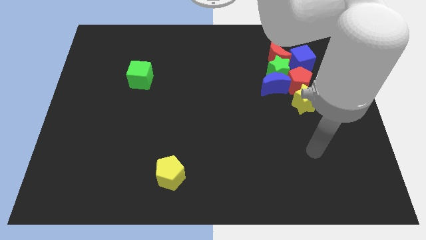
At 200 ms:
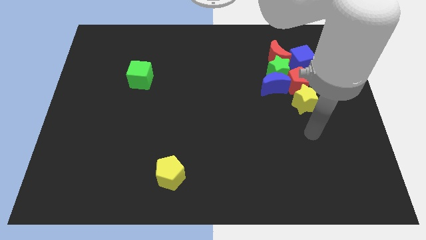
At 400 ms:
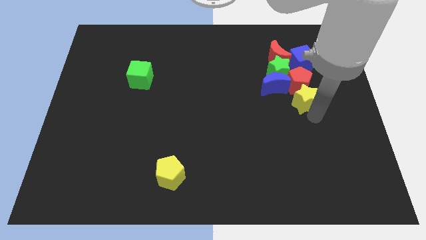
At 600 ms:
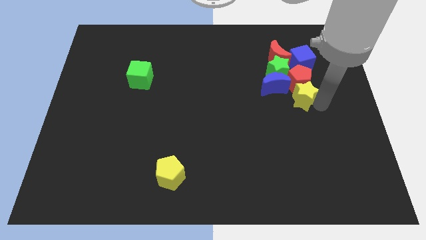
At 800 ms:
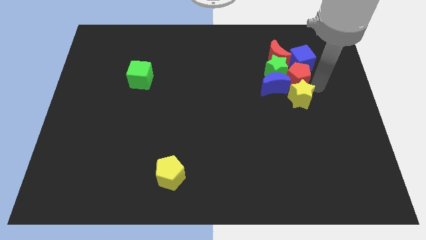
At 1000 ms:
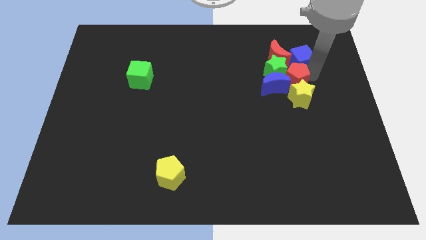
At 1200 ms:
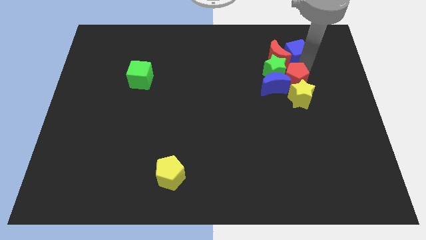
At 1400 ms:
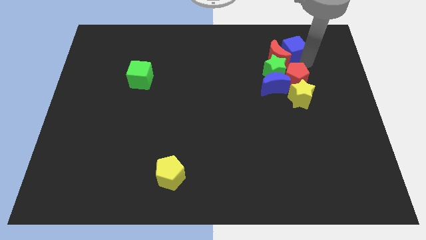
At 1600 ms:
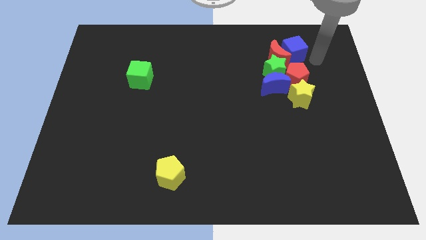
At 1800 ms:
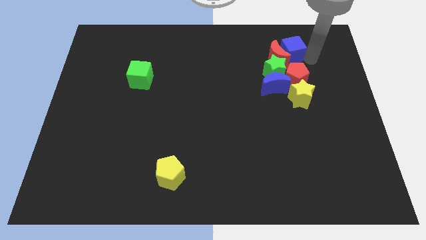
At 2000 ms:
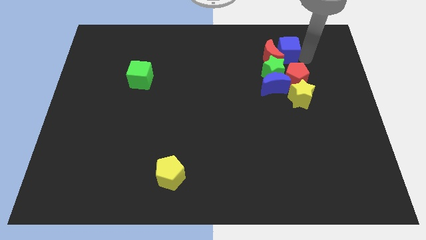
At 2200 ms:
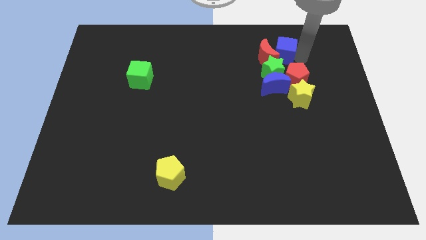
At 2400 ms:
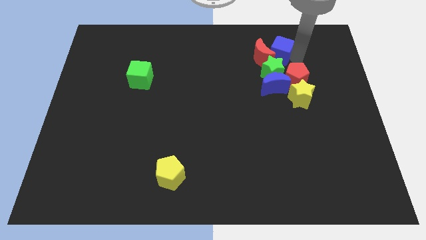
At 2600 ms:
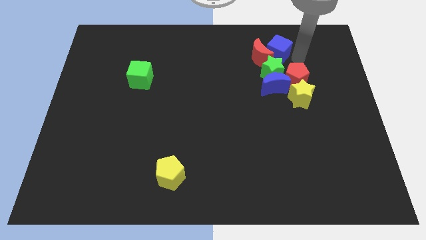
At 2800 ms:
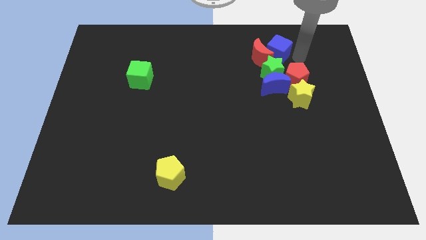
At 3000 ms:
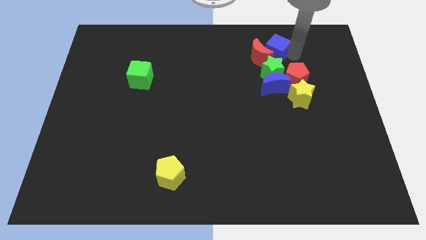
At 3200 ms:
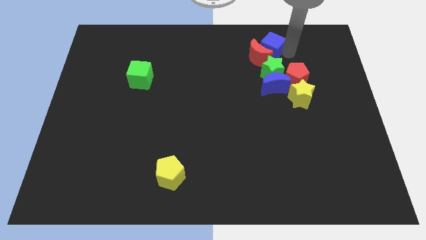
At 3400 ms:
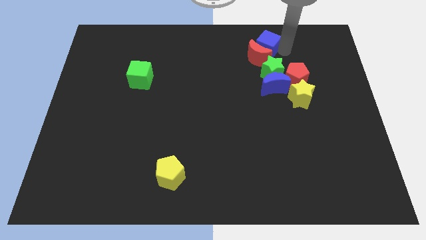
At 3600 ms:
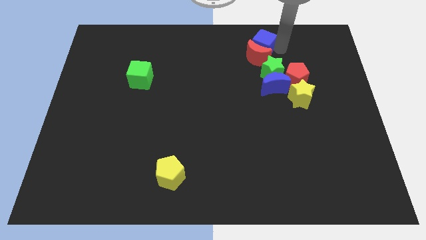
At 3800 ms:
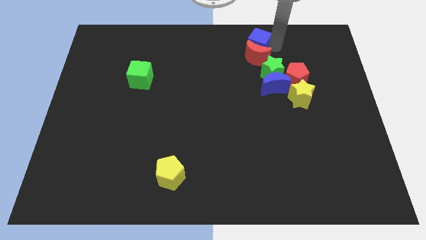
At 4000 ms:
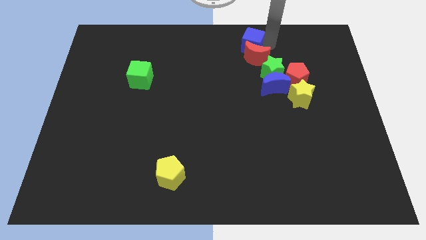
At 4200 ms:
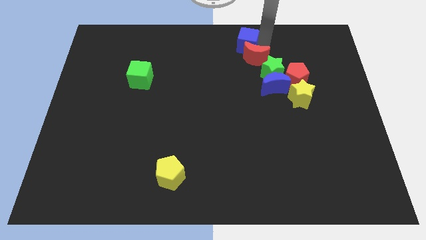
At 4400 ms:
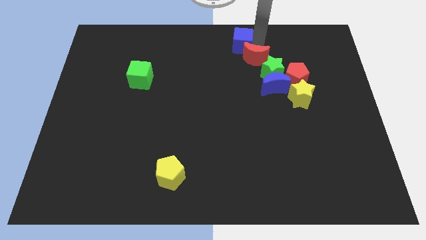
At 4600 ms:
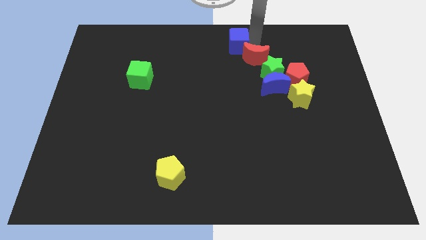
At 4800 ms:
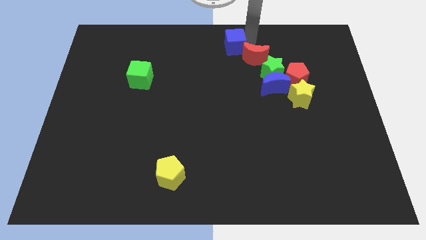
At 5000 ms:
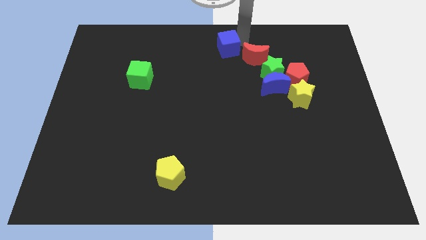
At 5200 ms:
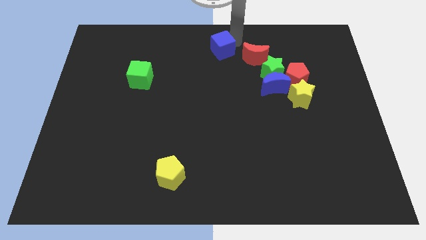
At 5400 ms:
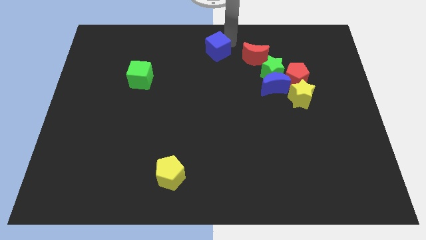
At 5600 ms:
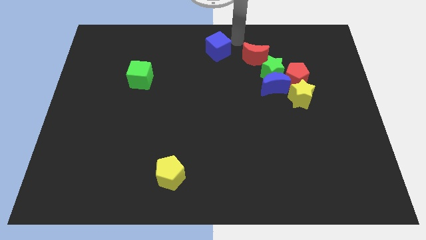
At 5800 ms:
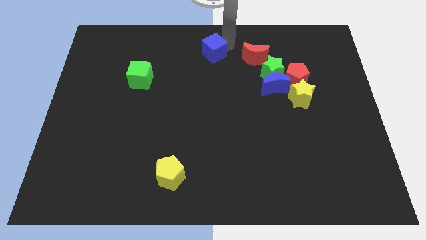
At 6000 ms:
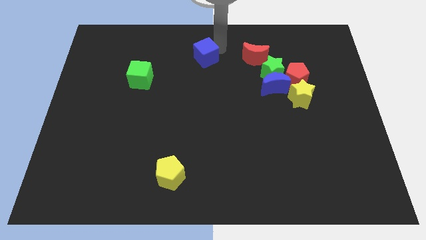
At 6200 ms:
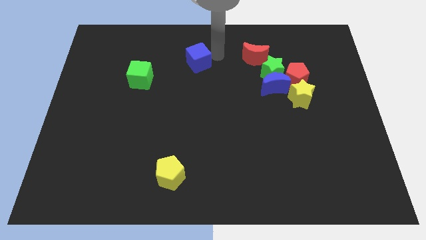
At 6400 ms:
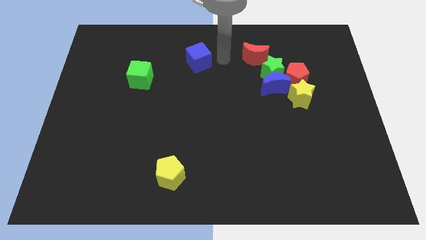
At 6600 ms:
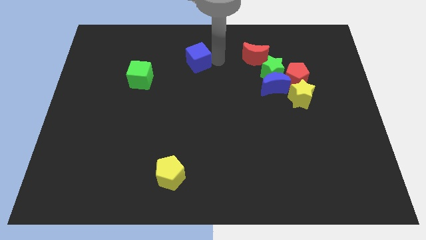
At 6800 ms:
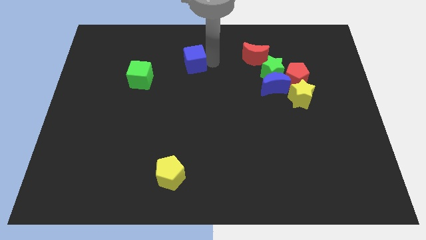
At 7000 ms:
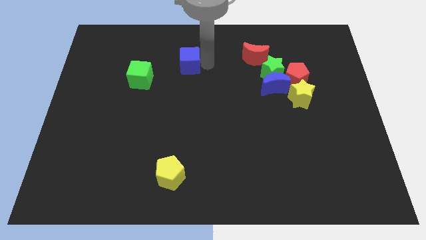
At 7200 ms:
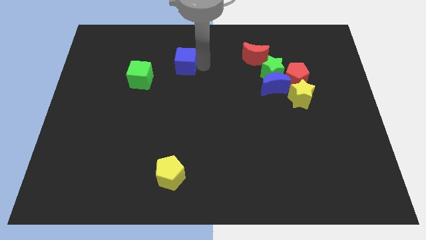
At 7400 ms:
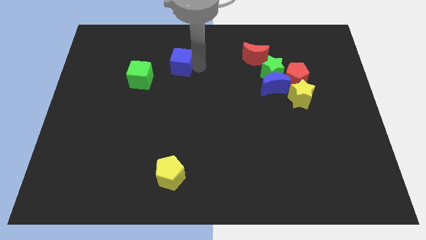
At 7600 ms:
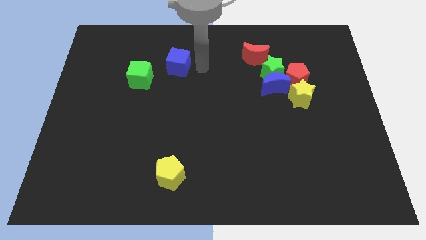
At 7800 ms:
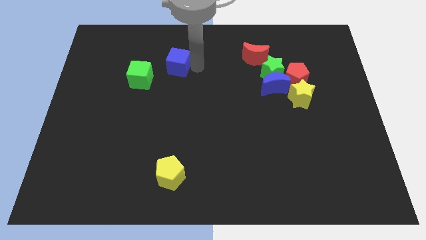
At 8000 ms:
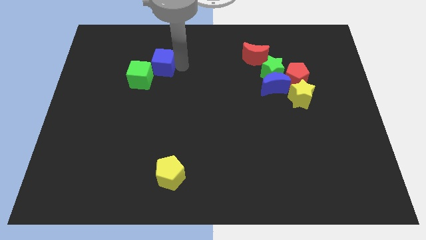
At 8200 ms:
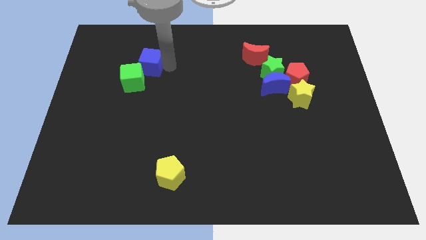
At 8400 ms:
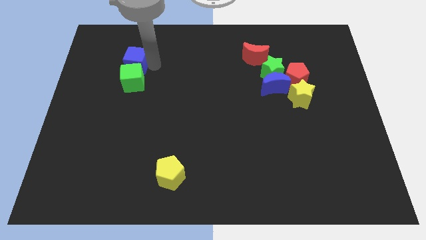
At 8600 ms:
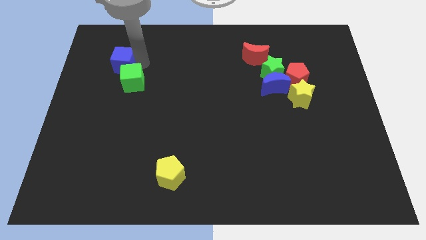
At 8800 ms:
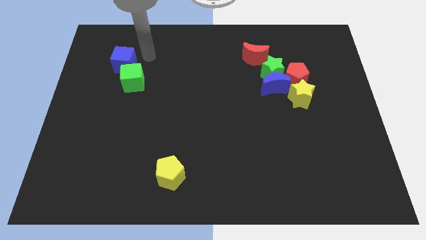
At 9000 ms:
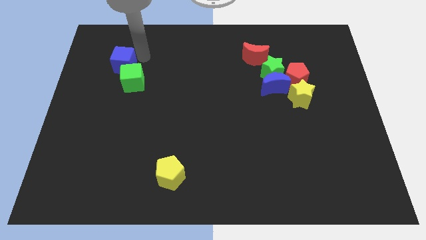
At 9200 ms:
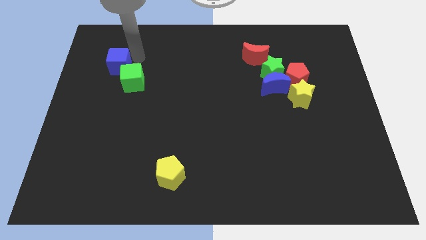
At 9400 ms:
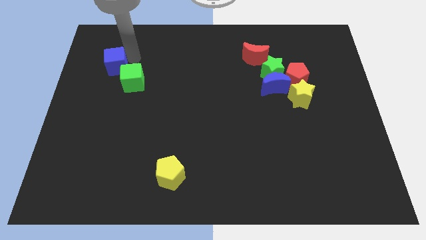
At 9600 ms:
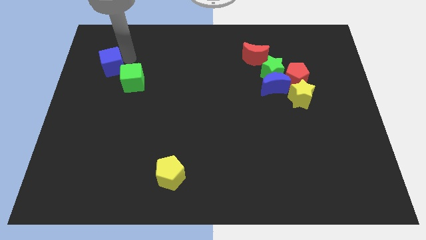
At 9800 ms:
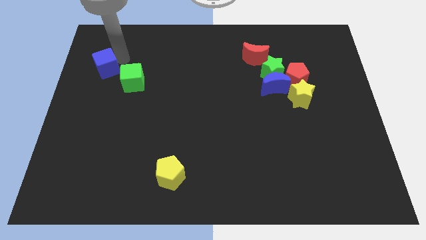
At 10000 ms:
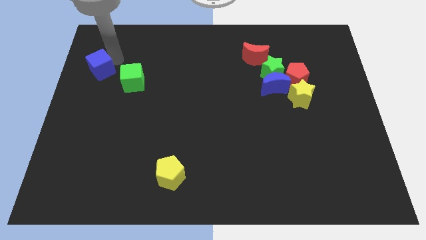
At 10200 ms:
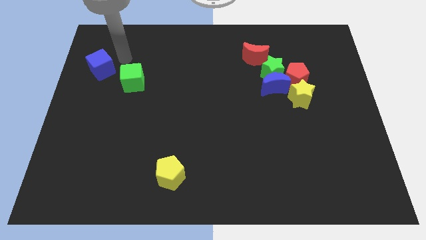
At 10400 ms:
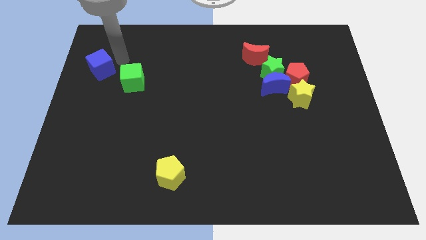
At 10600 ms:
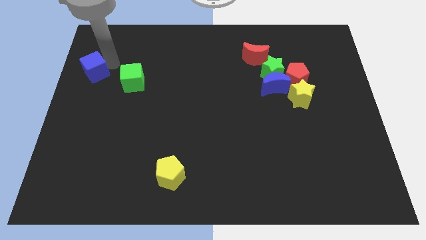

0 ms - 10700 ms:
move the blue cube to the left side of the board
